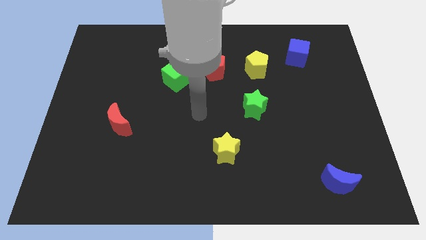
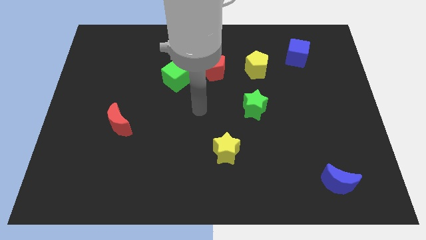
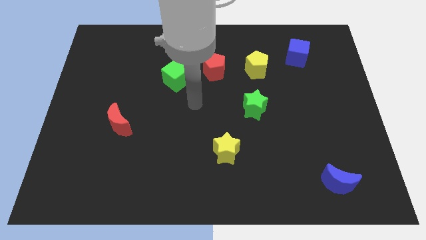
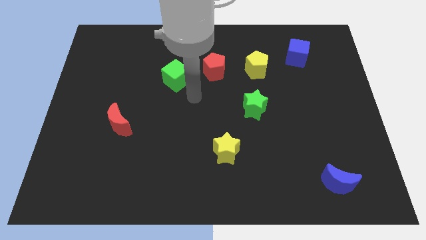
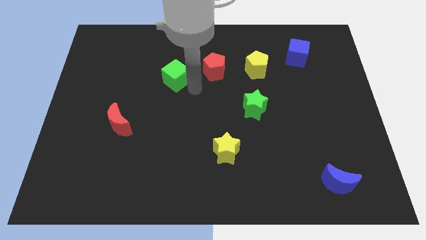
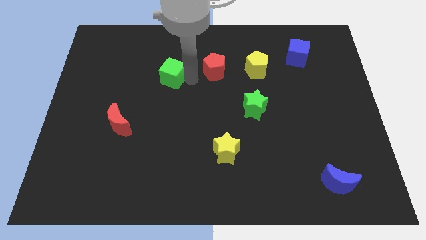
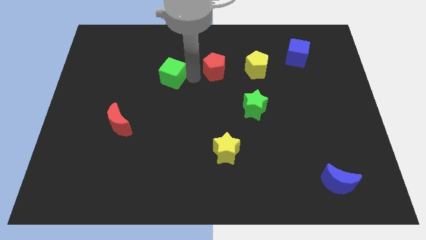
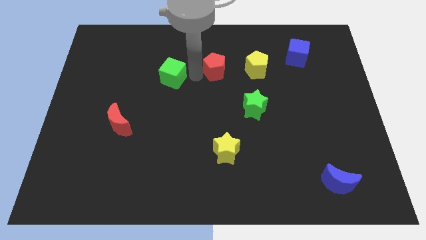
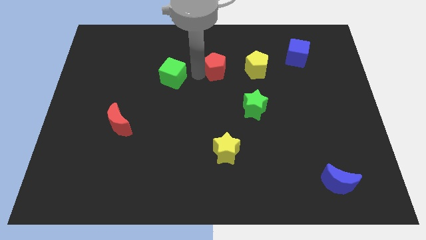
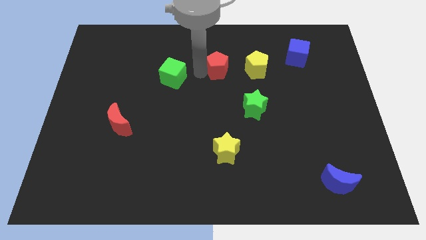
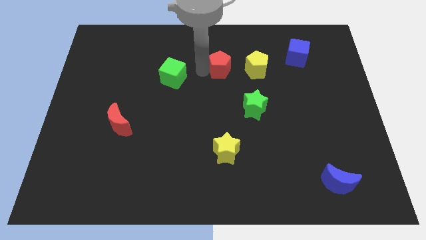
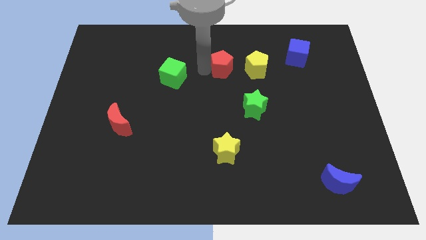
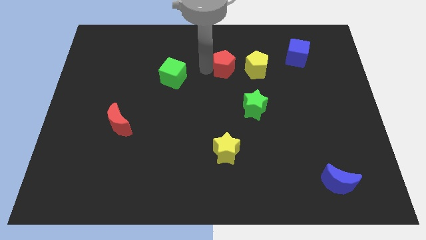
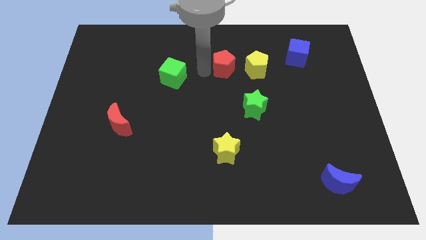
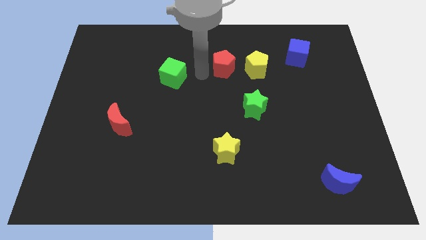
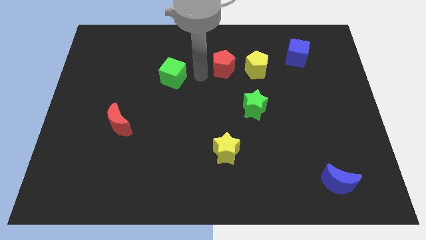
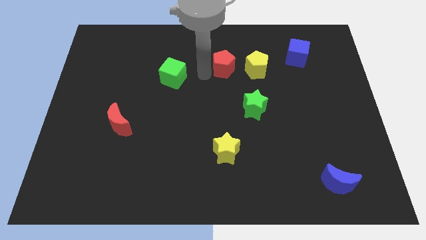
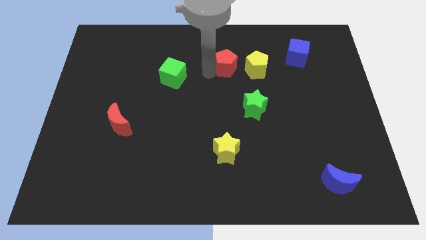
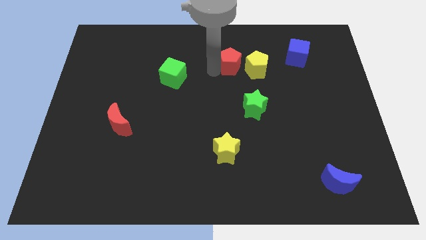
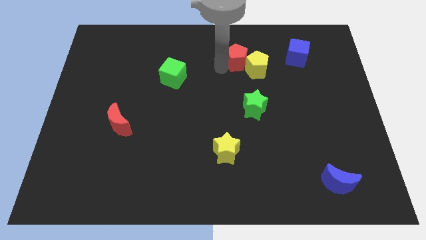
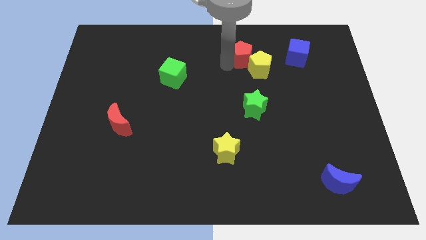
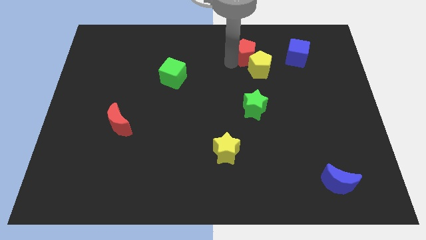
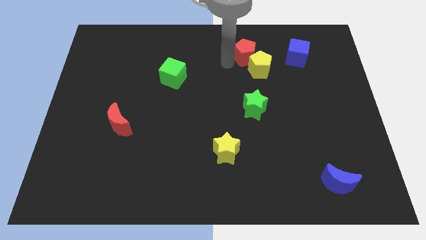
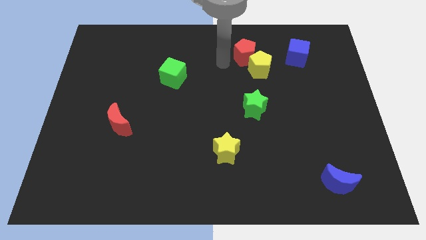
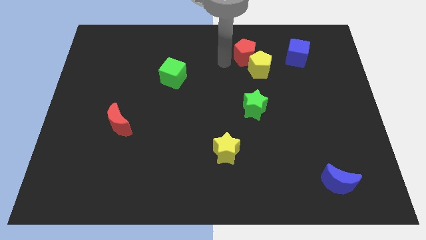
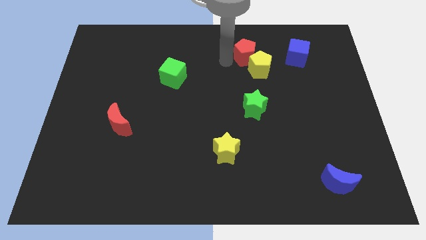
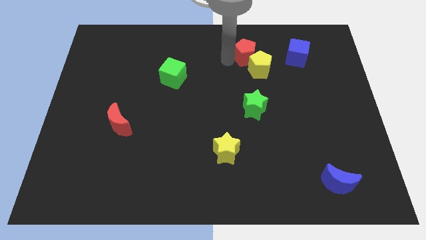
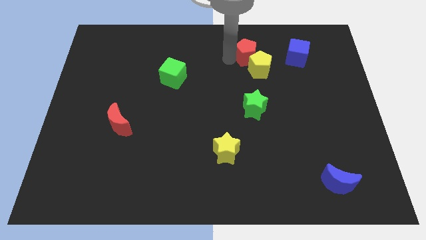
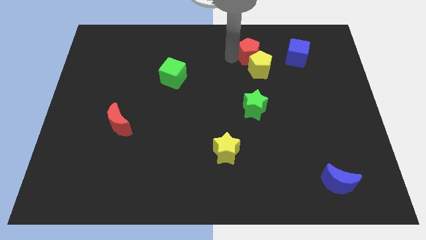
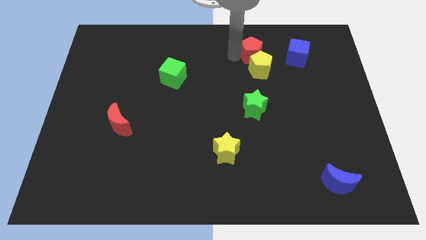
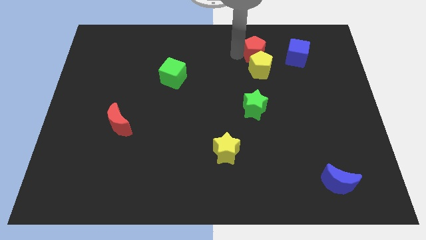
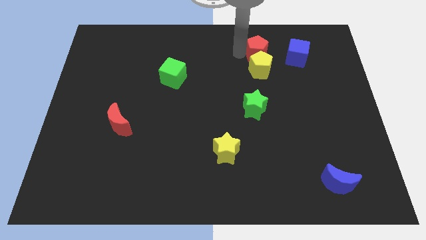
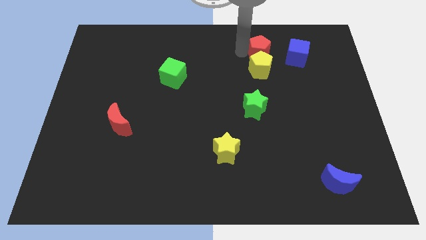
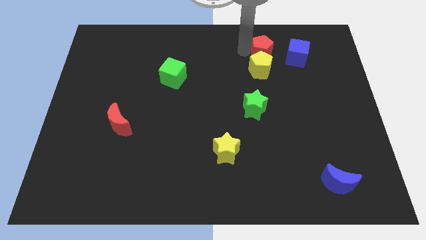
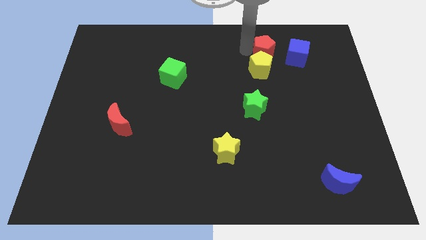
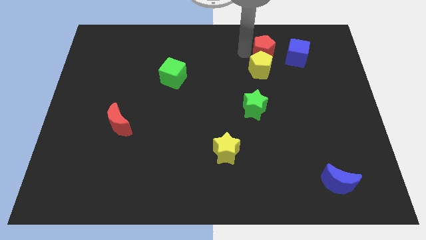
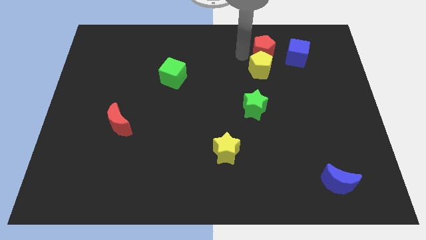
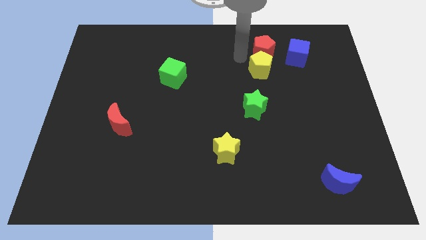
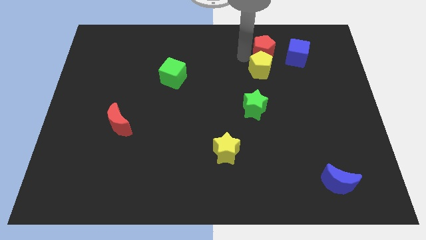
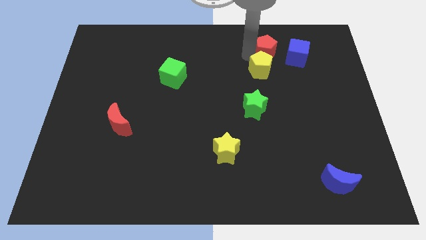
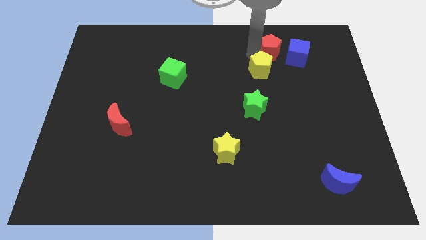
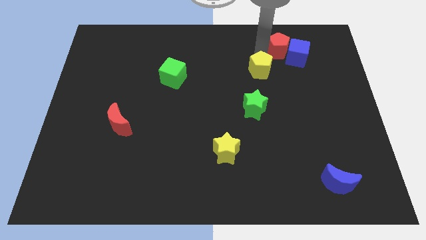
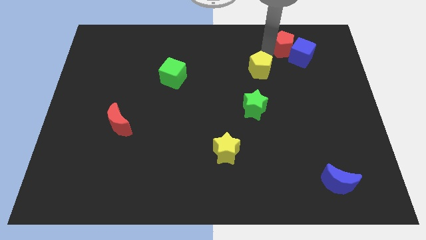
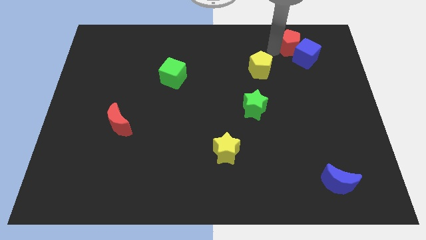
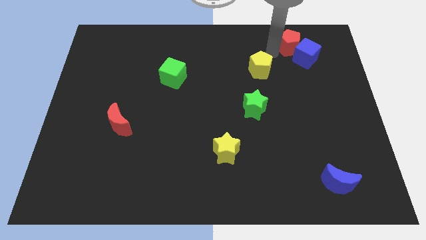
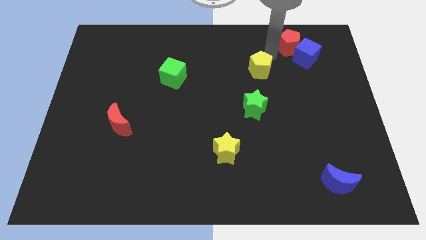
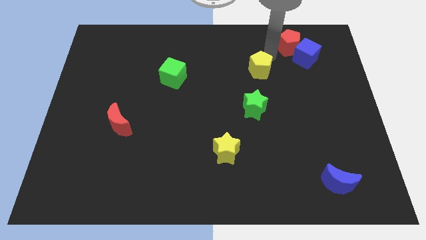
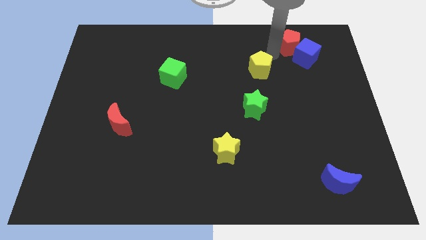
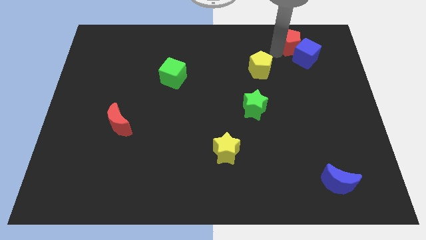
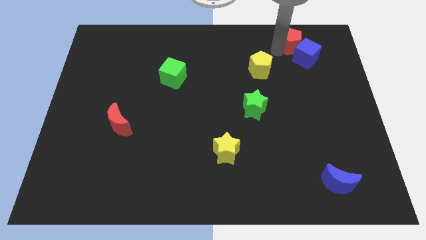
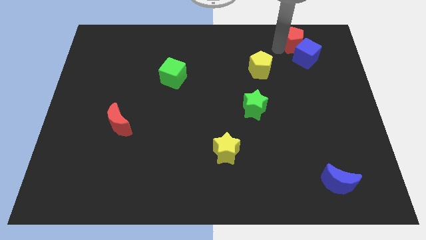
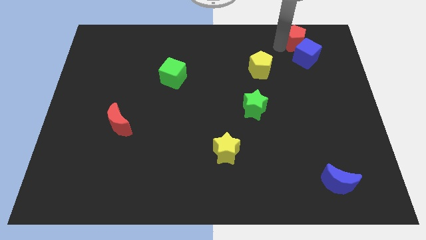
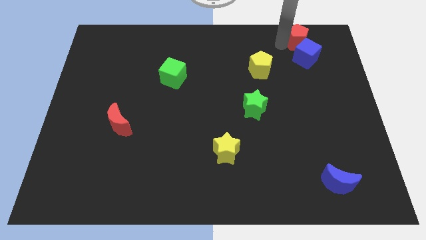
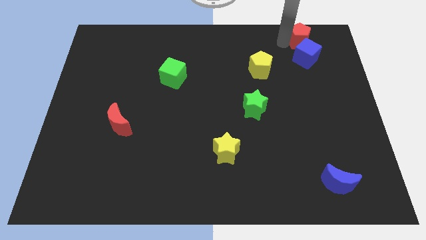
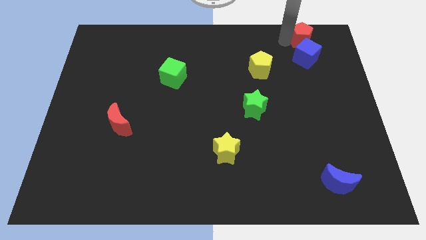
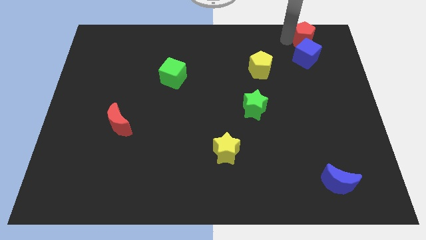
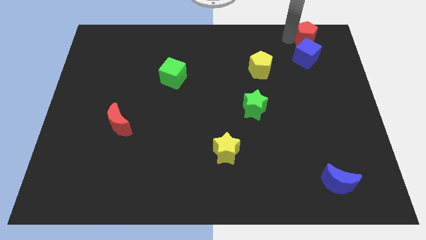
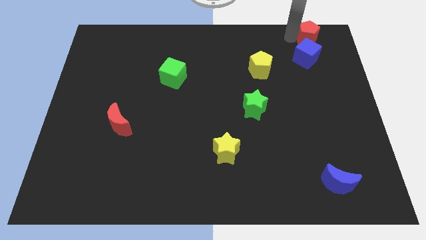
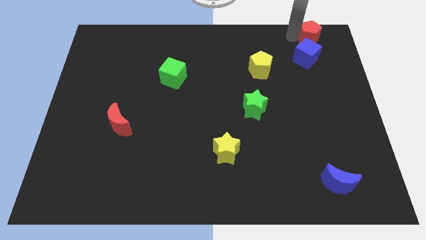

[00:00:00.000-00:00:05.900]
put the red pentagon to the upper right corner

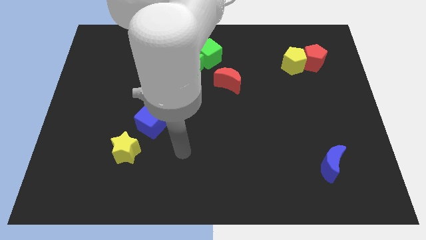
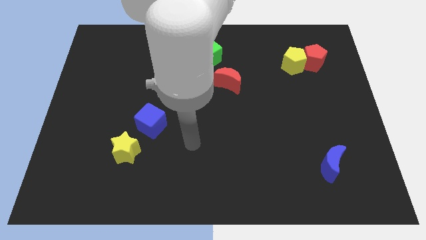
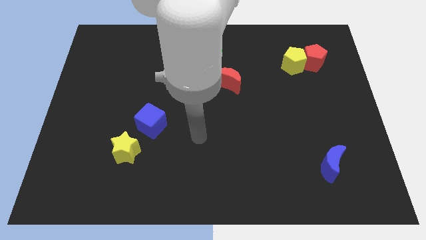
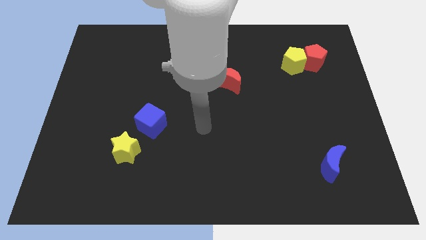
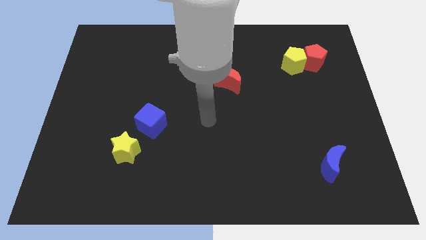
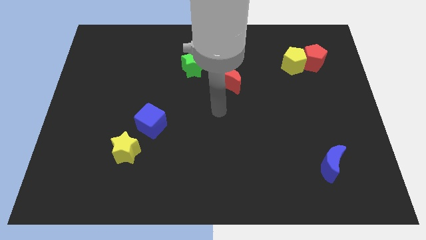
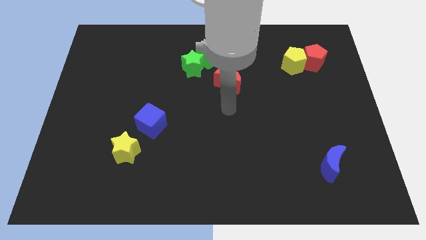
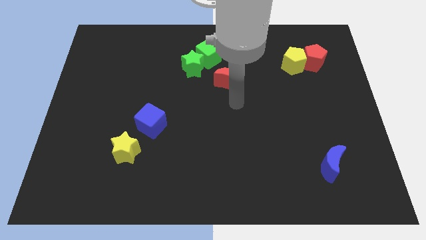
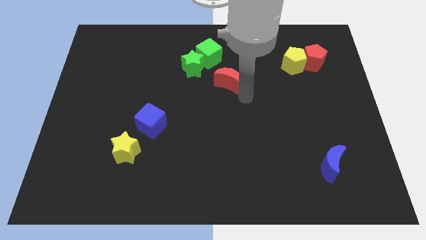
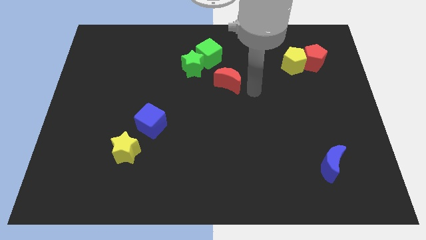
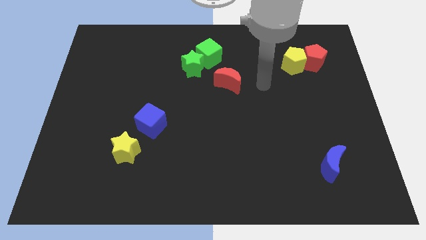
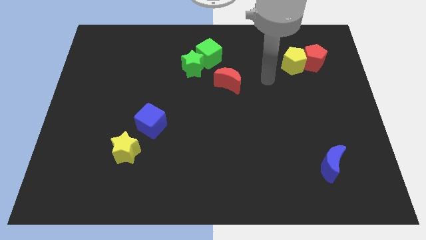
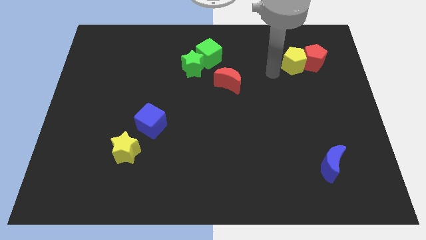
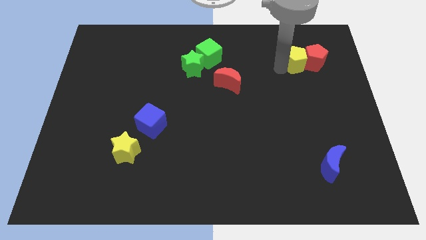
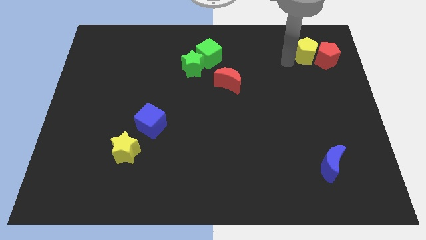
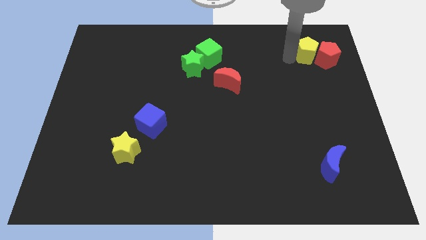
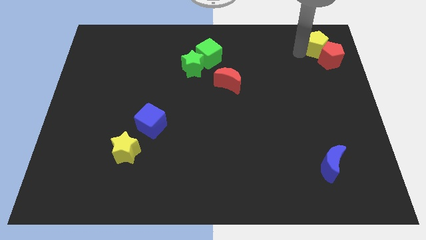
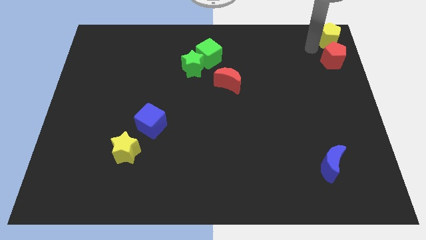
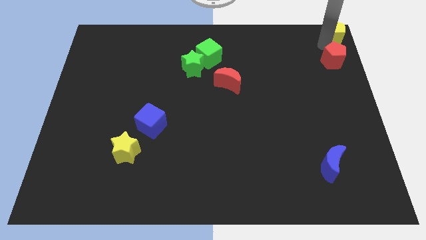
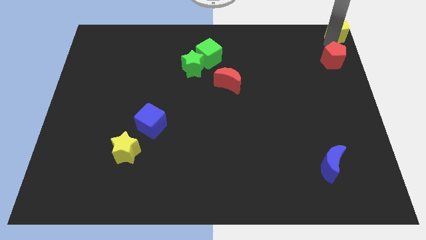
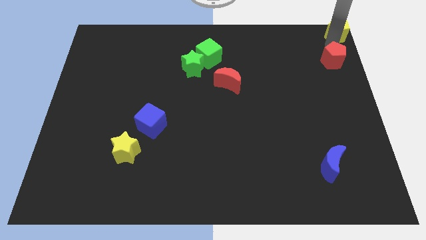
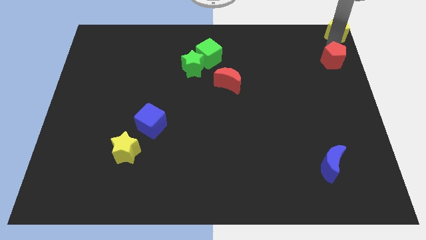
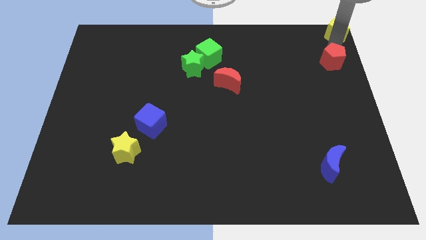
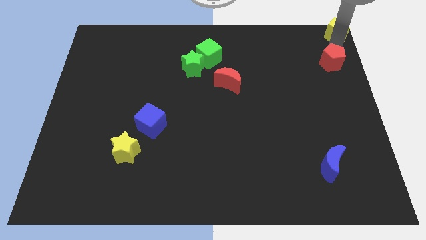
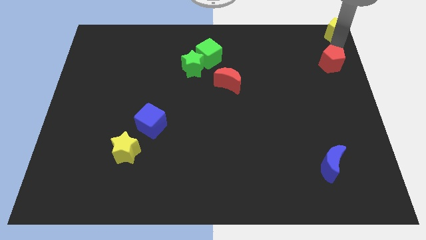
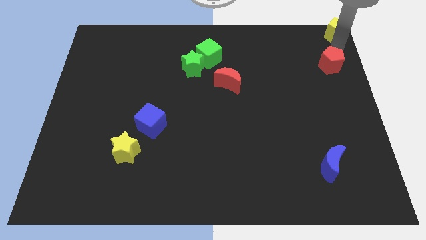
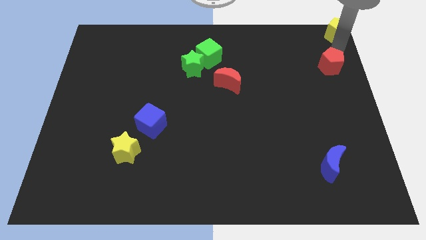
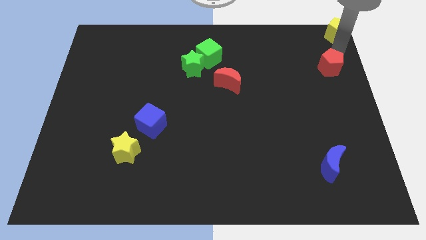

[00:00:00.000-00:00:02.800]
push the red pentagon to the right side of the board
